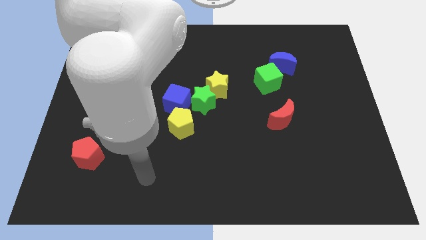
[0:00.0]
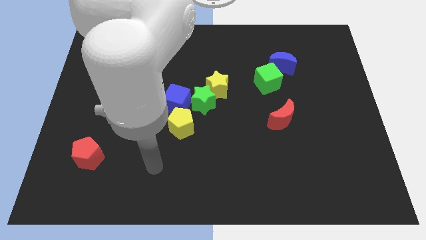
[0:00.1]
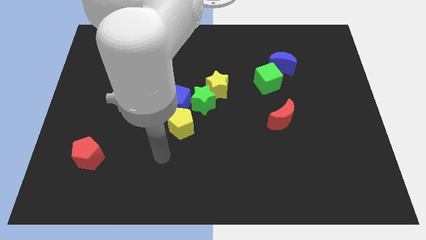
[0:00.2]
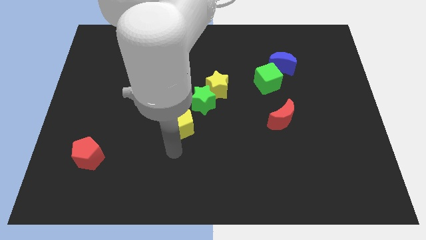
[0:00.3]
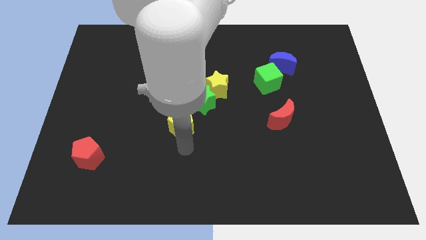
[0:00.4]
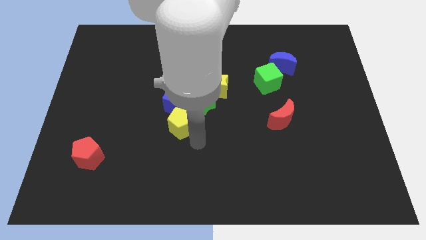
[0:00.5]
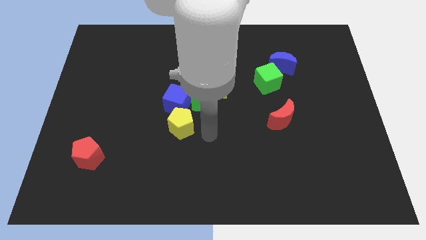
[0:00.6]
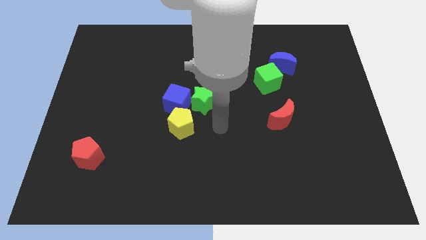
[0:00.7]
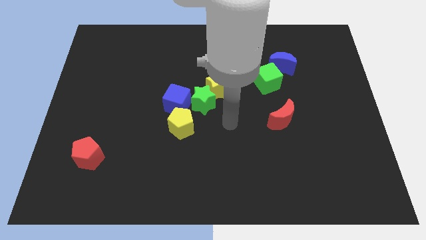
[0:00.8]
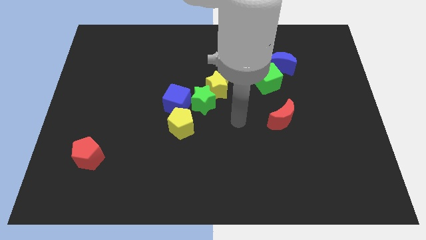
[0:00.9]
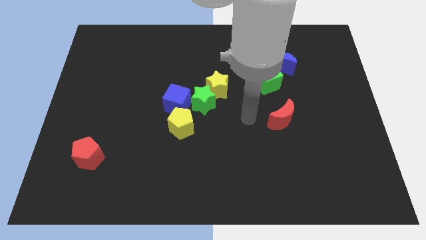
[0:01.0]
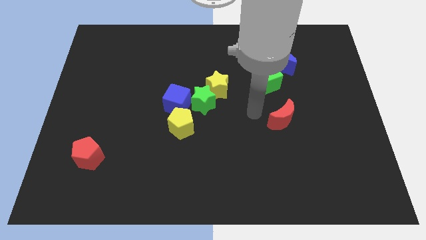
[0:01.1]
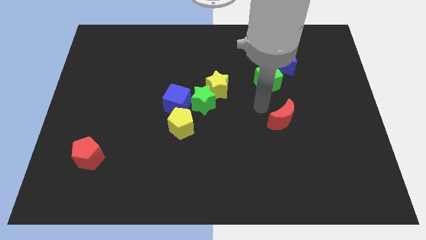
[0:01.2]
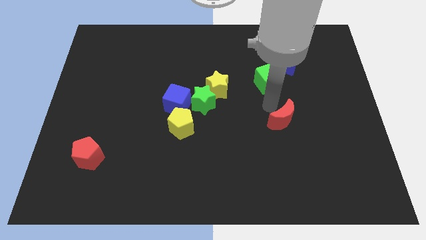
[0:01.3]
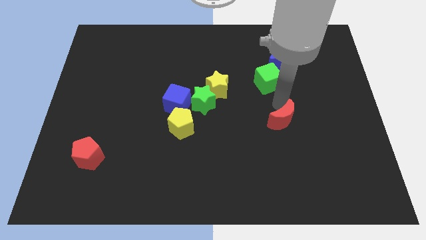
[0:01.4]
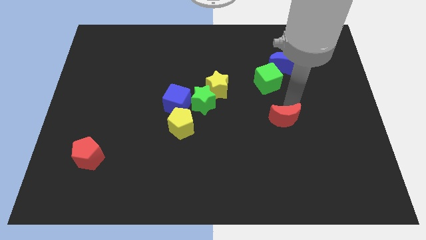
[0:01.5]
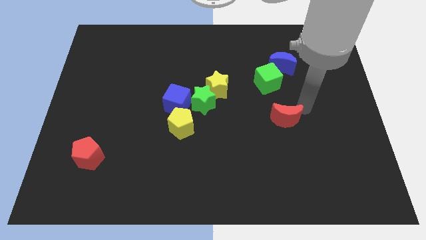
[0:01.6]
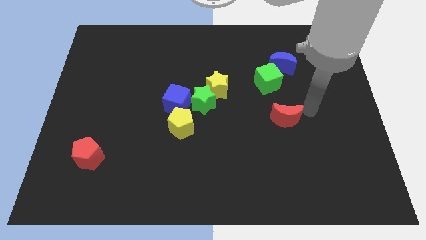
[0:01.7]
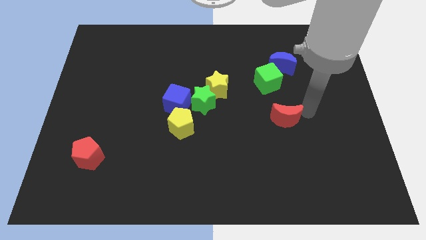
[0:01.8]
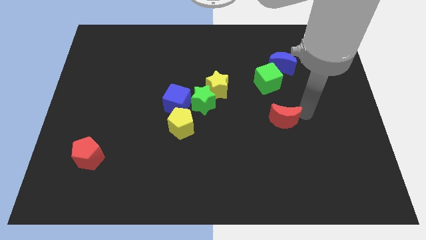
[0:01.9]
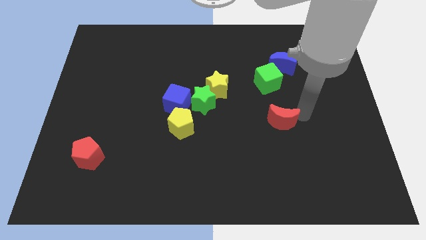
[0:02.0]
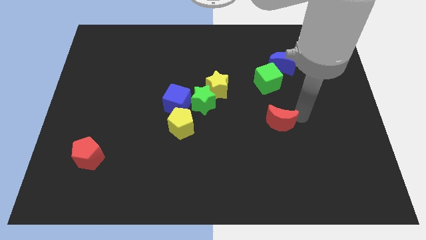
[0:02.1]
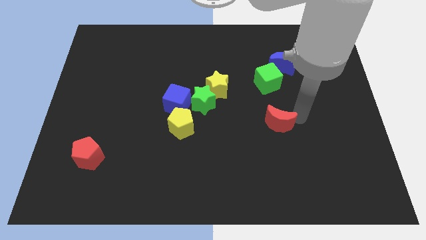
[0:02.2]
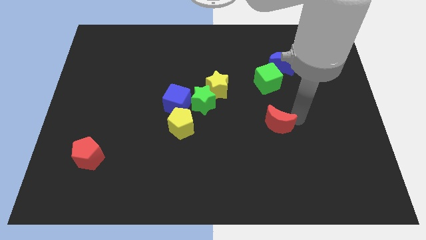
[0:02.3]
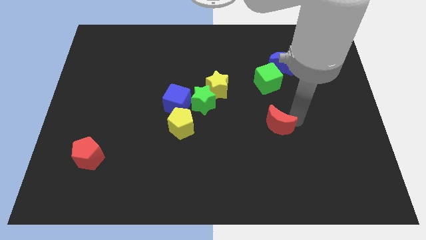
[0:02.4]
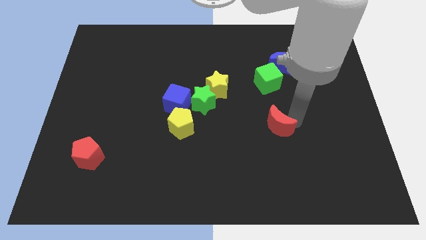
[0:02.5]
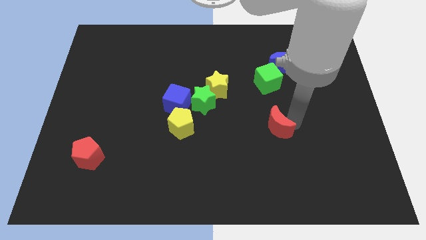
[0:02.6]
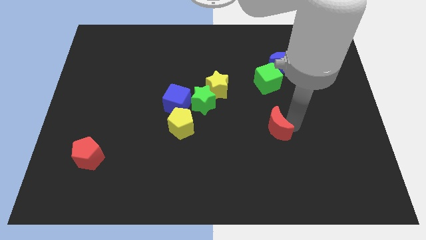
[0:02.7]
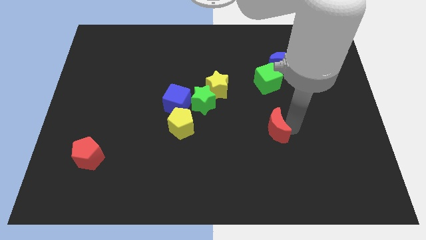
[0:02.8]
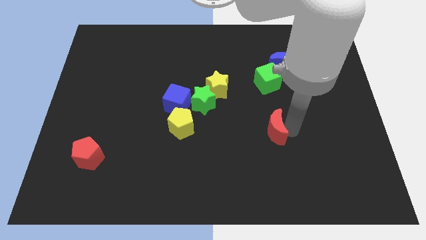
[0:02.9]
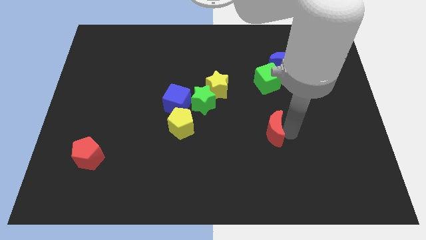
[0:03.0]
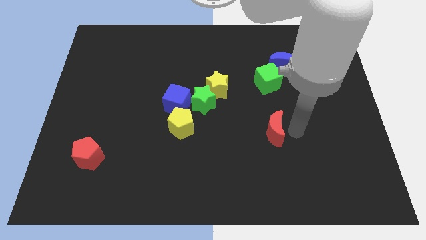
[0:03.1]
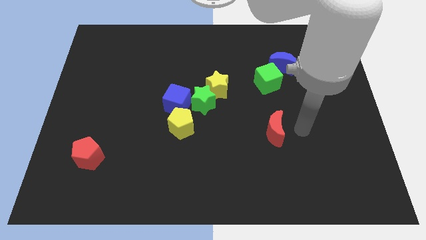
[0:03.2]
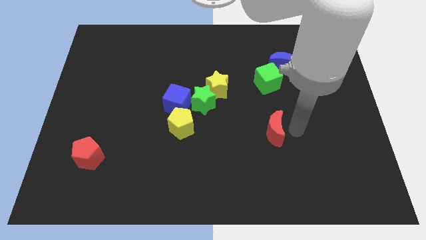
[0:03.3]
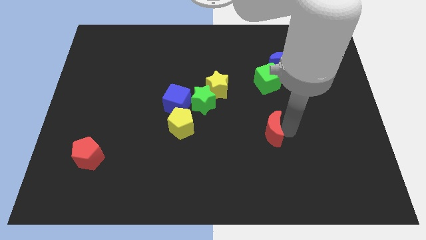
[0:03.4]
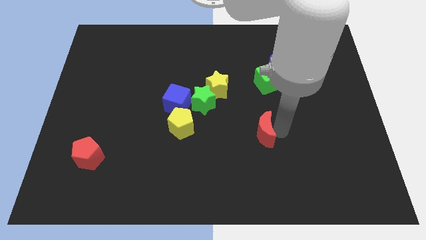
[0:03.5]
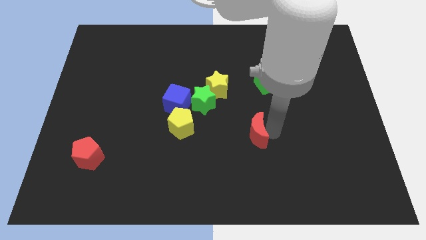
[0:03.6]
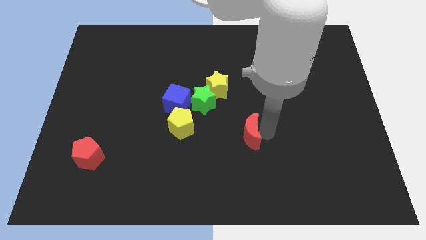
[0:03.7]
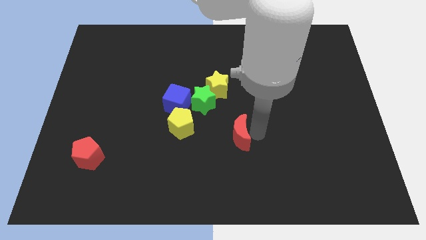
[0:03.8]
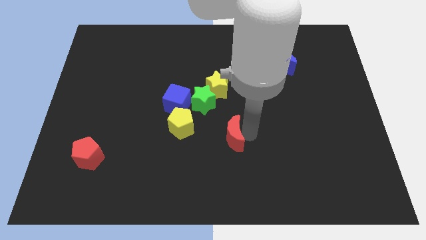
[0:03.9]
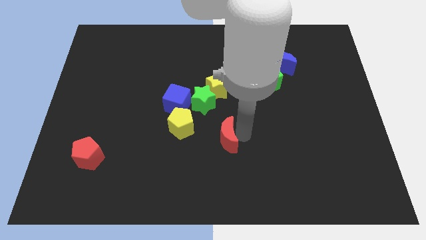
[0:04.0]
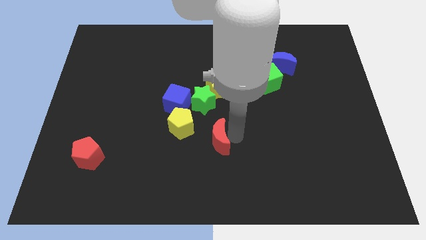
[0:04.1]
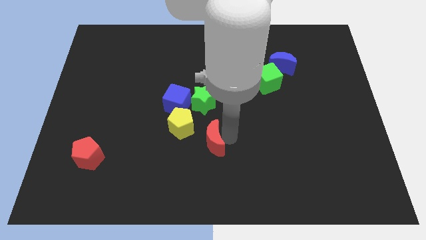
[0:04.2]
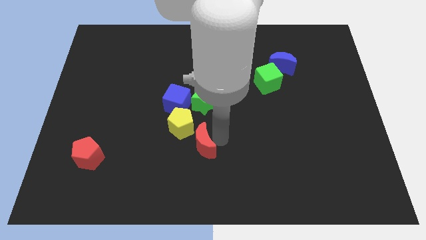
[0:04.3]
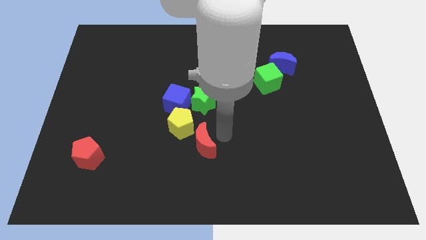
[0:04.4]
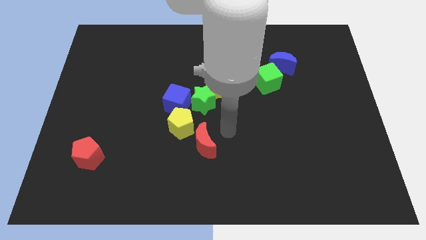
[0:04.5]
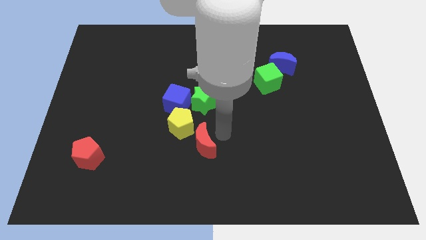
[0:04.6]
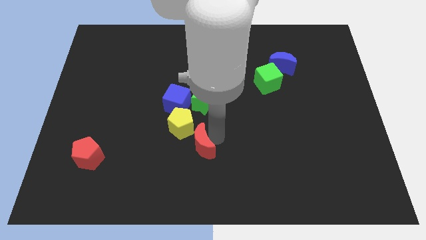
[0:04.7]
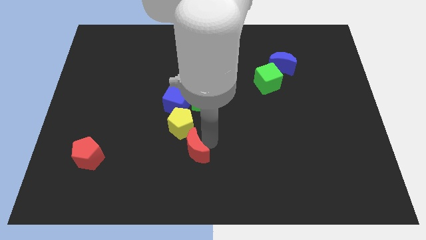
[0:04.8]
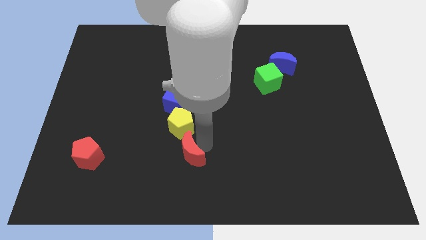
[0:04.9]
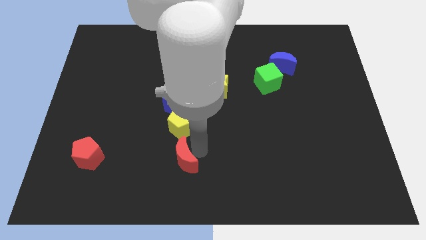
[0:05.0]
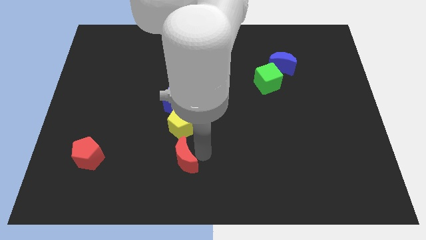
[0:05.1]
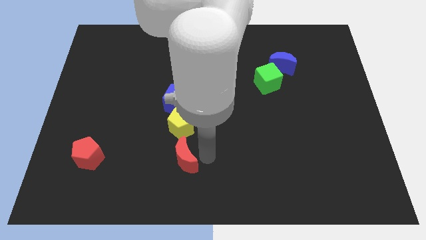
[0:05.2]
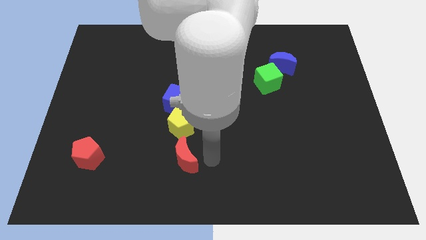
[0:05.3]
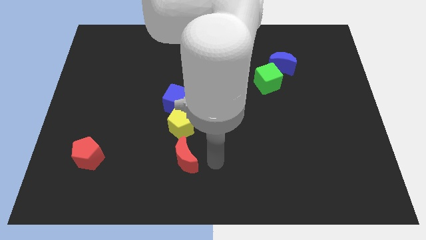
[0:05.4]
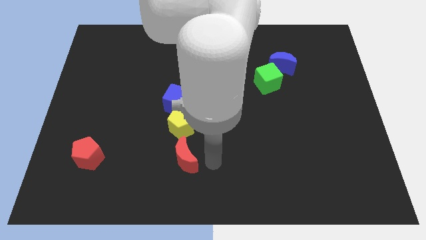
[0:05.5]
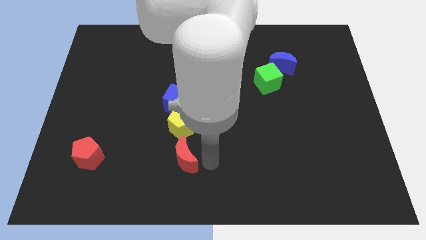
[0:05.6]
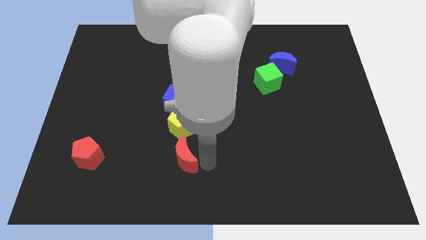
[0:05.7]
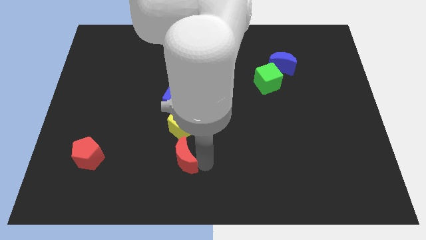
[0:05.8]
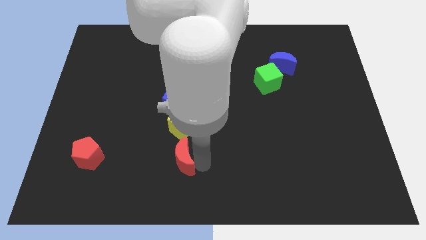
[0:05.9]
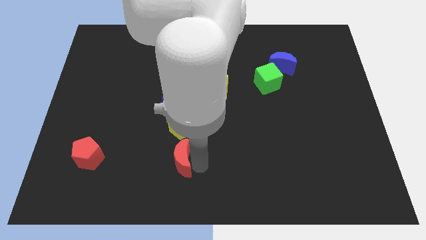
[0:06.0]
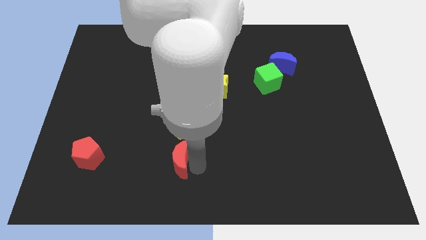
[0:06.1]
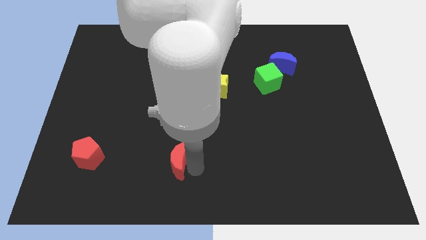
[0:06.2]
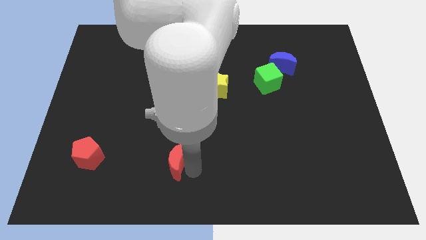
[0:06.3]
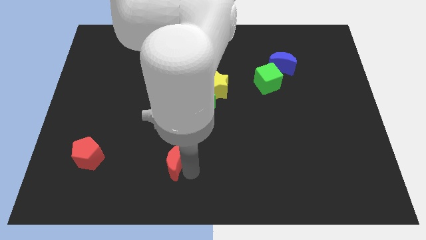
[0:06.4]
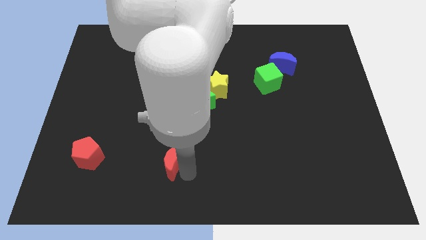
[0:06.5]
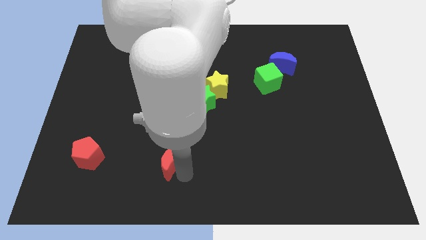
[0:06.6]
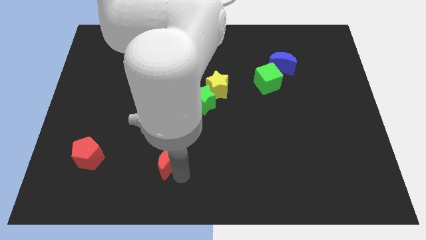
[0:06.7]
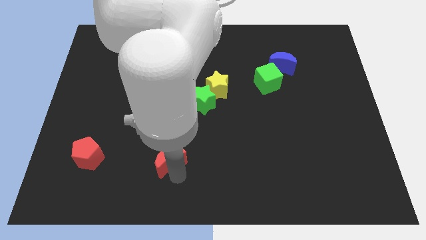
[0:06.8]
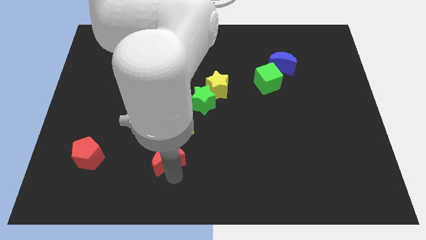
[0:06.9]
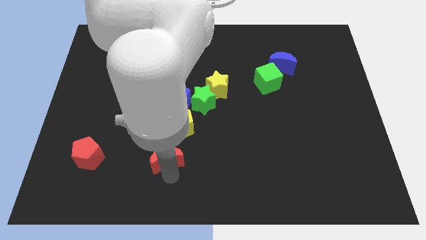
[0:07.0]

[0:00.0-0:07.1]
slide the red moon to the left

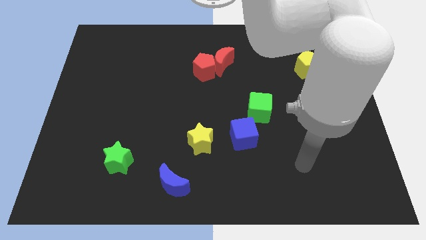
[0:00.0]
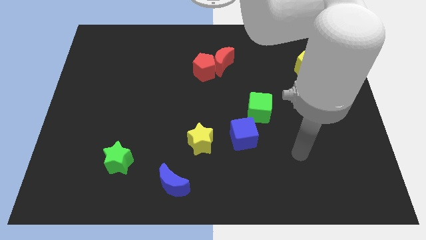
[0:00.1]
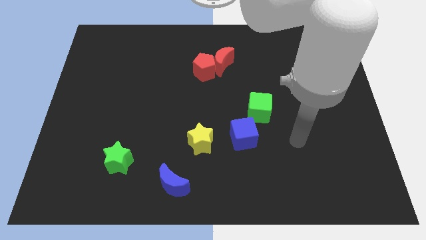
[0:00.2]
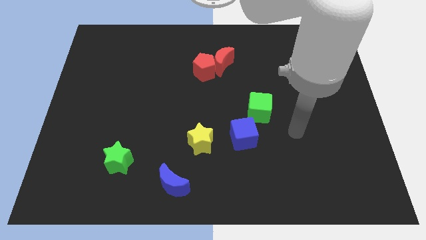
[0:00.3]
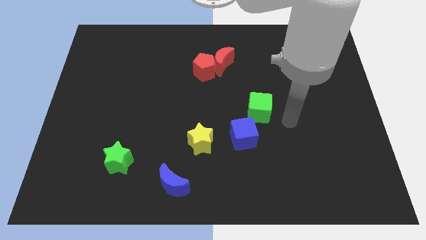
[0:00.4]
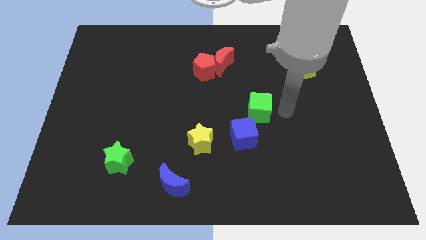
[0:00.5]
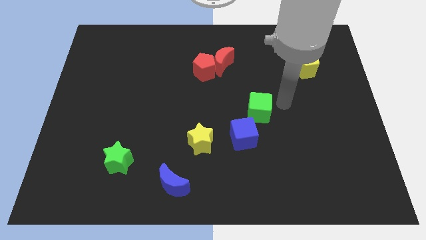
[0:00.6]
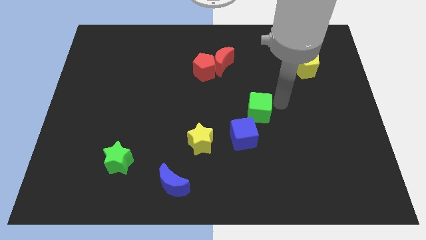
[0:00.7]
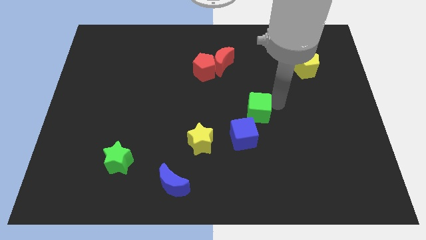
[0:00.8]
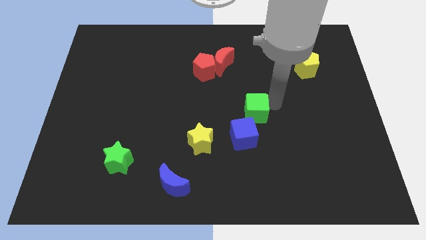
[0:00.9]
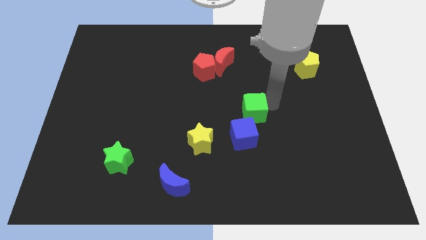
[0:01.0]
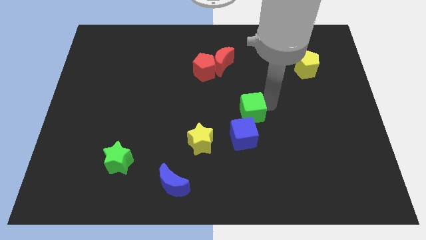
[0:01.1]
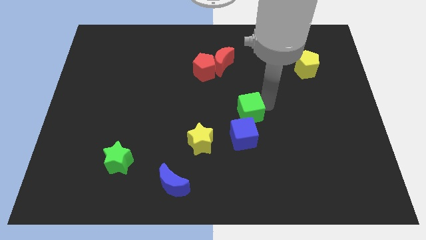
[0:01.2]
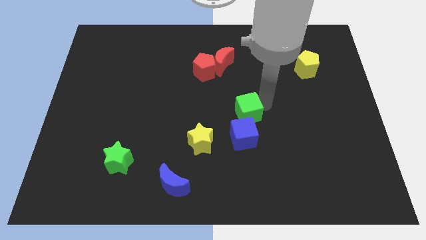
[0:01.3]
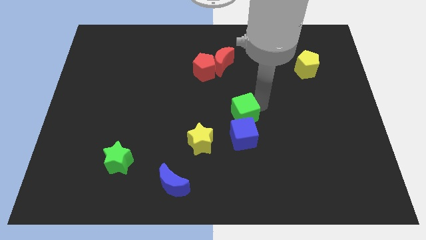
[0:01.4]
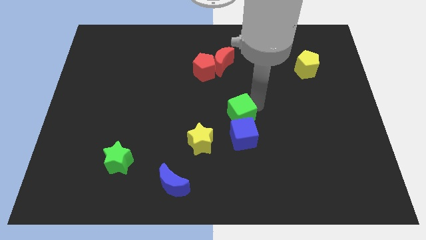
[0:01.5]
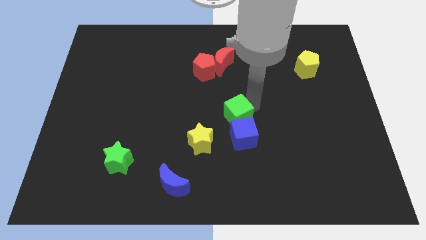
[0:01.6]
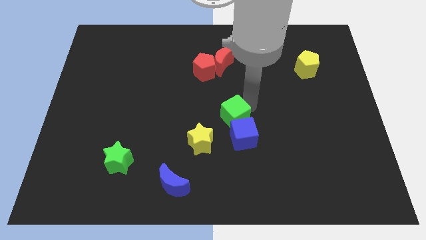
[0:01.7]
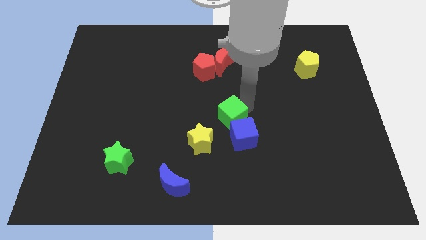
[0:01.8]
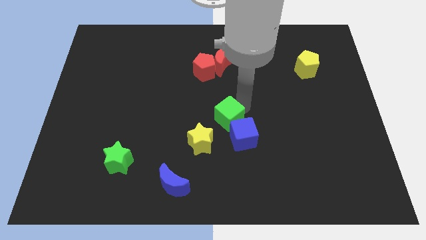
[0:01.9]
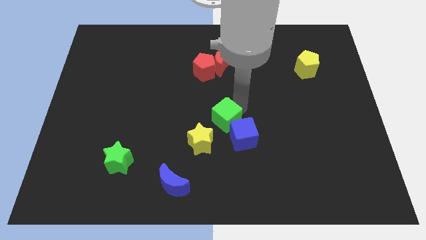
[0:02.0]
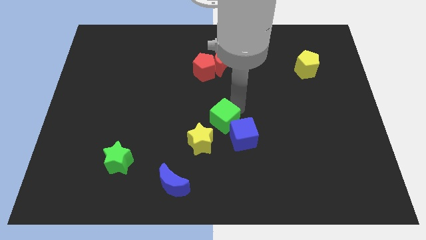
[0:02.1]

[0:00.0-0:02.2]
slightly slide the green cube downwards and to the left diagonally
